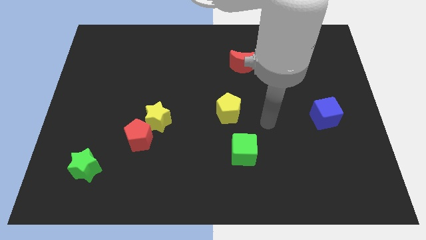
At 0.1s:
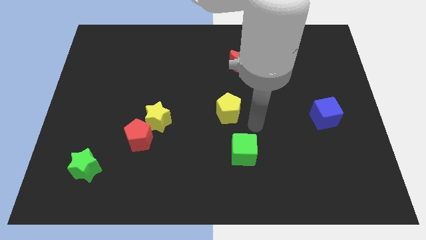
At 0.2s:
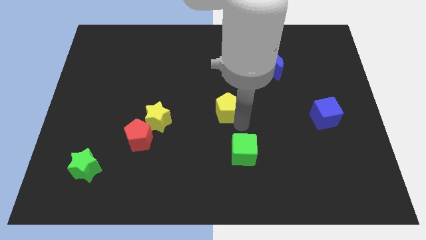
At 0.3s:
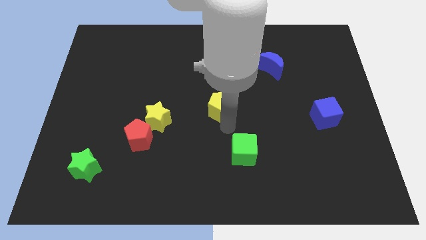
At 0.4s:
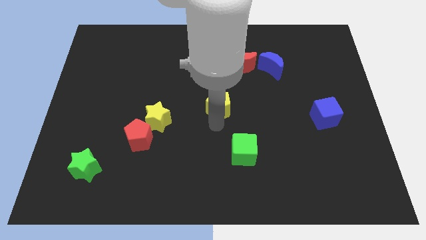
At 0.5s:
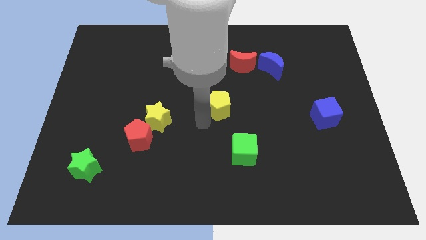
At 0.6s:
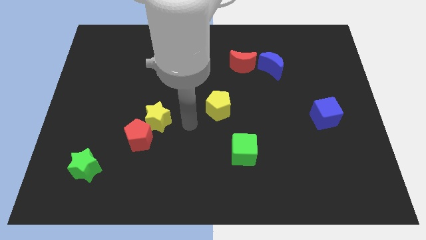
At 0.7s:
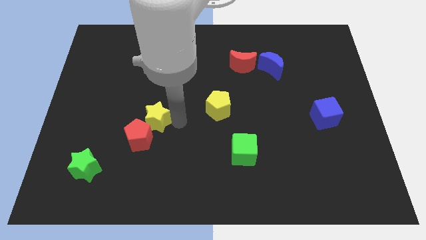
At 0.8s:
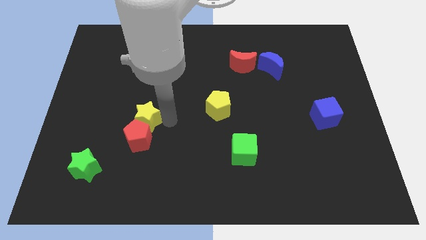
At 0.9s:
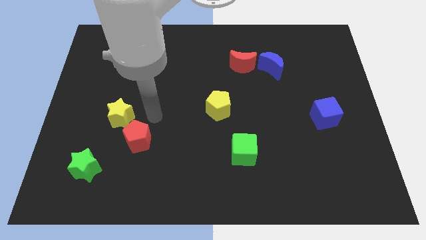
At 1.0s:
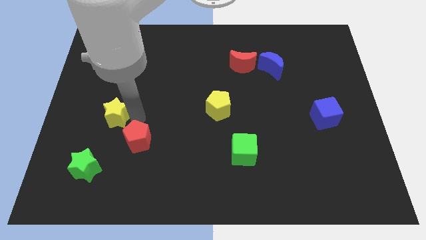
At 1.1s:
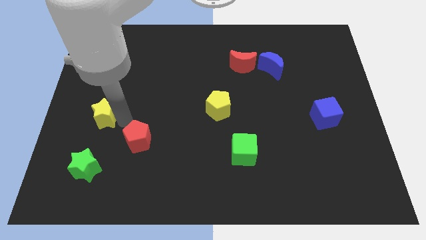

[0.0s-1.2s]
move the red pentagon away from the yellow star

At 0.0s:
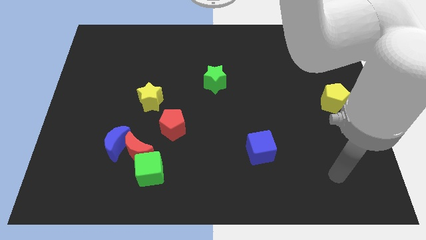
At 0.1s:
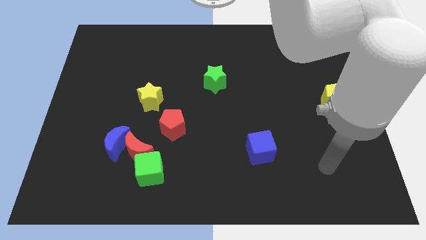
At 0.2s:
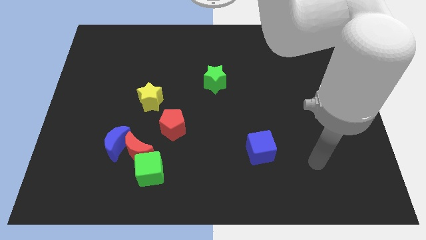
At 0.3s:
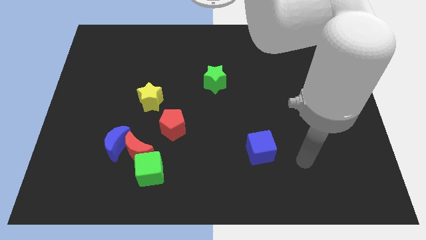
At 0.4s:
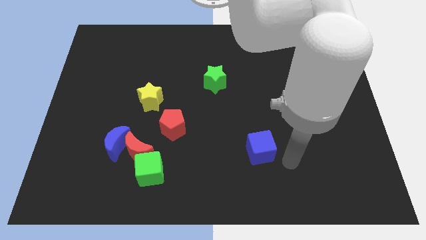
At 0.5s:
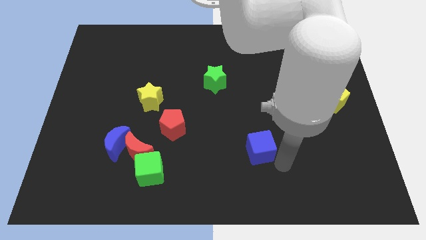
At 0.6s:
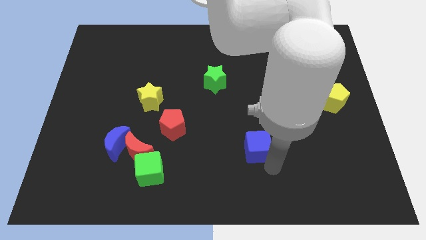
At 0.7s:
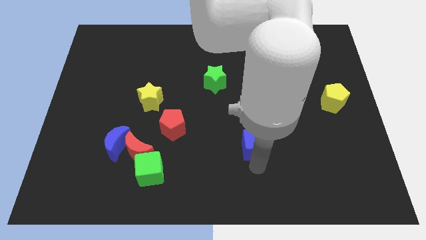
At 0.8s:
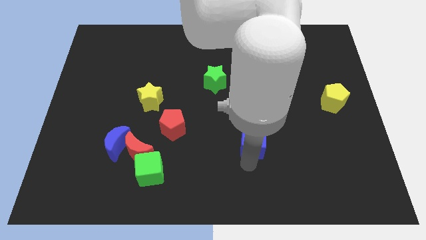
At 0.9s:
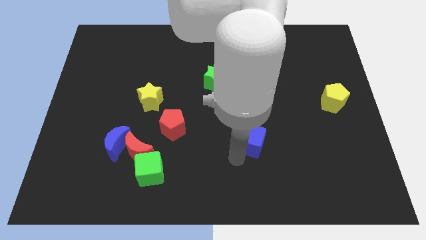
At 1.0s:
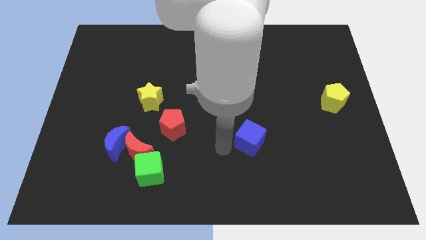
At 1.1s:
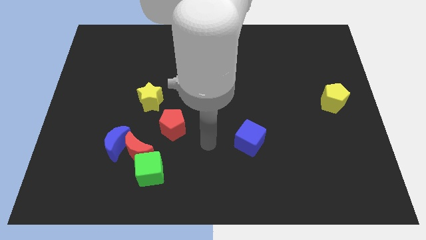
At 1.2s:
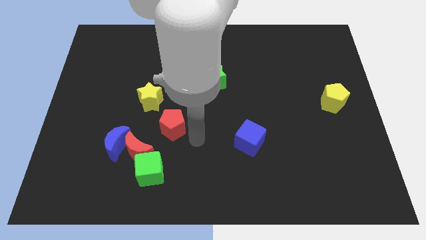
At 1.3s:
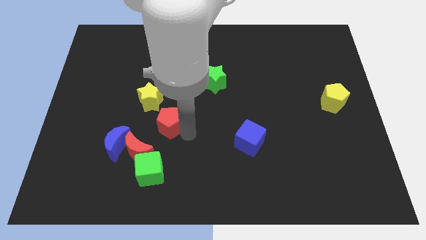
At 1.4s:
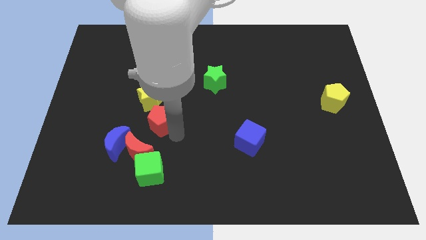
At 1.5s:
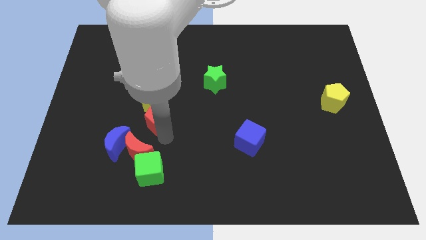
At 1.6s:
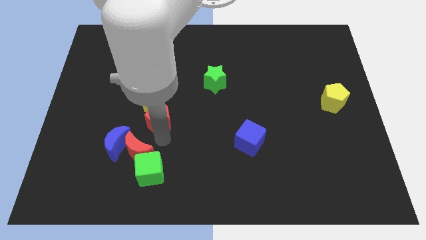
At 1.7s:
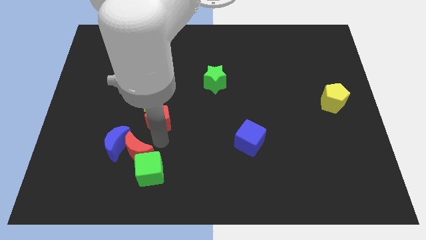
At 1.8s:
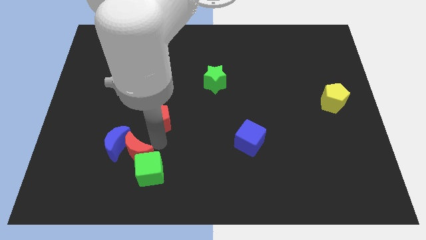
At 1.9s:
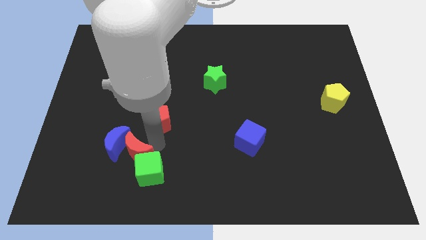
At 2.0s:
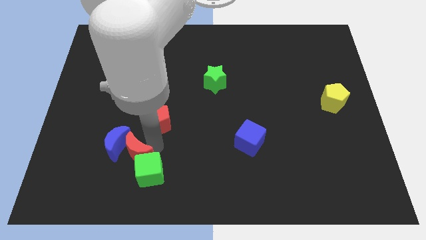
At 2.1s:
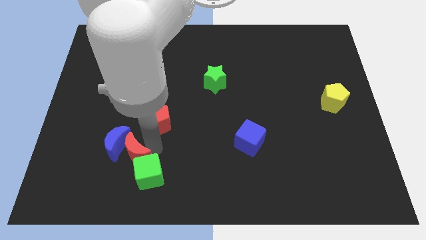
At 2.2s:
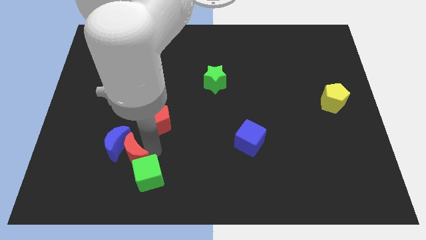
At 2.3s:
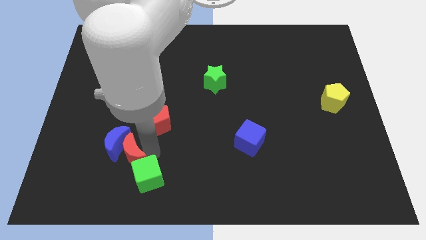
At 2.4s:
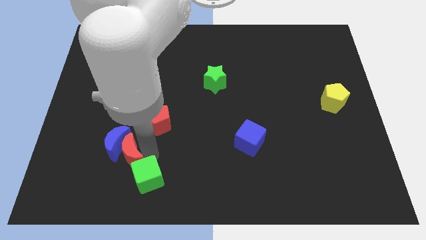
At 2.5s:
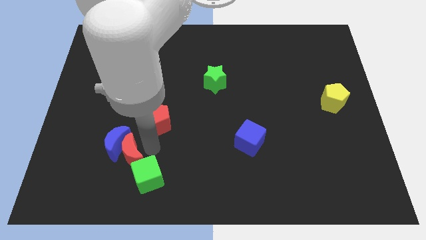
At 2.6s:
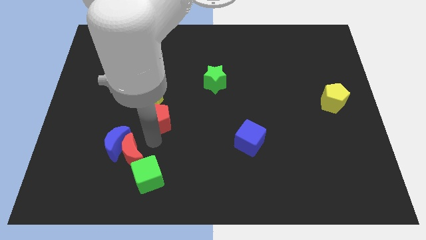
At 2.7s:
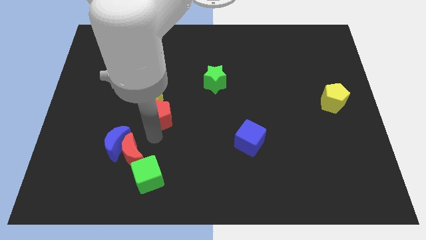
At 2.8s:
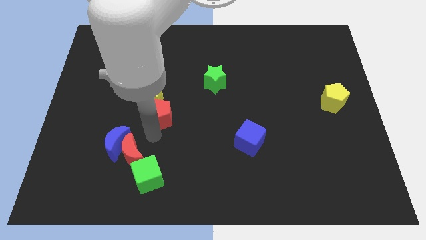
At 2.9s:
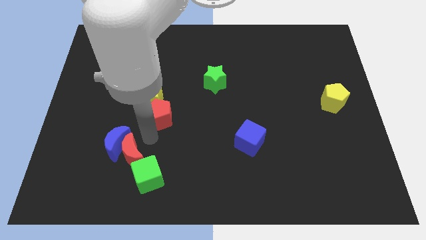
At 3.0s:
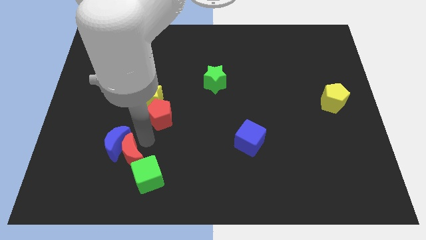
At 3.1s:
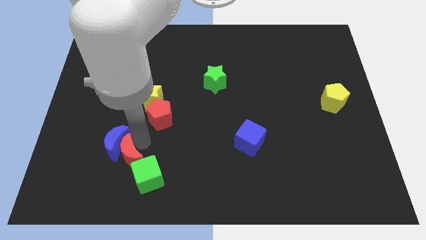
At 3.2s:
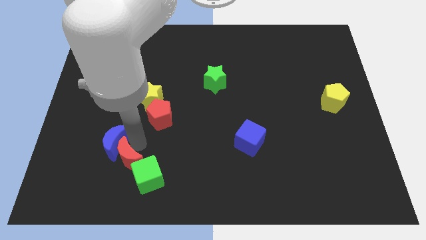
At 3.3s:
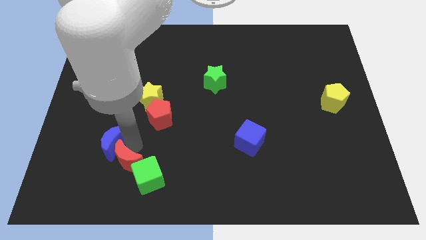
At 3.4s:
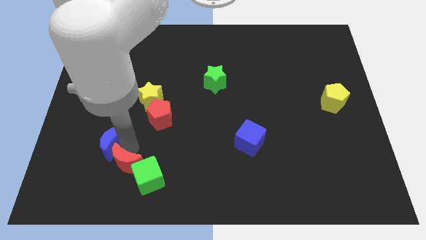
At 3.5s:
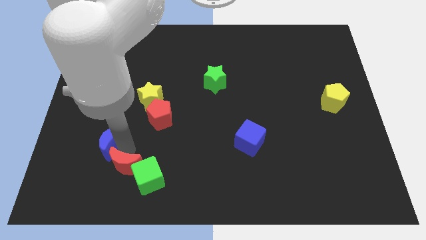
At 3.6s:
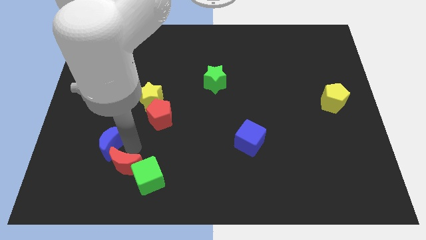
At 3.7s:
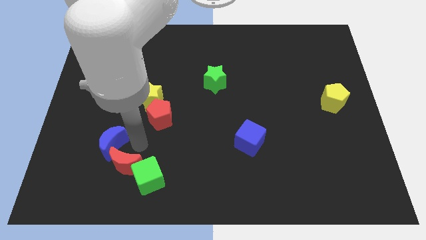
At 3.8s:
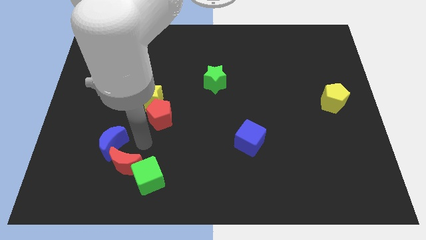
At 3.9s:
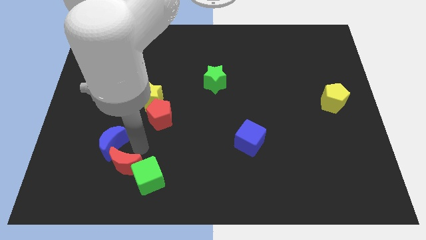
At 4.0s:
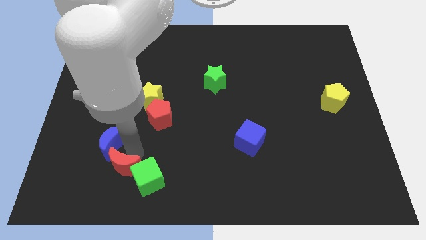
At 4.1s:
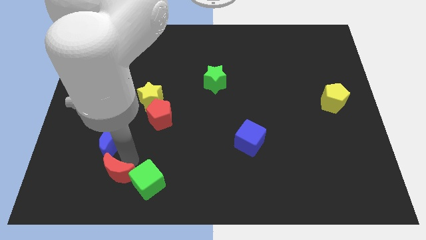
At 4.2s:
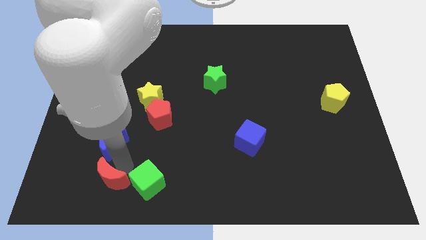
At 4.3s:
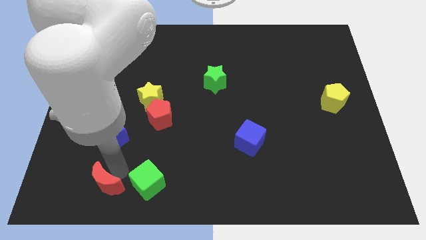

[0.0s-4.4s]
move the red moon away from the group

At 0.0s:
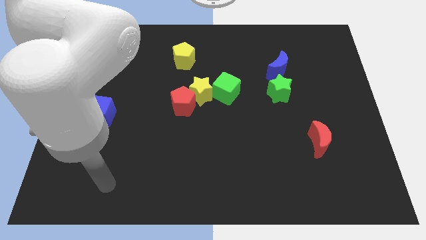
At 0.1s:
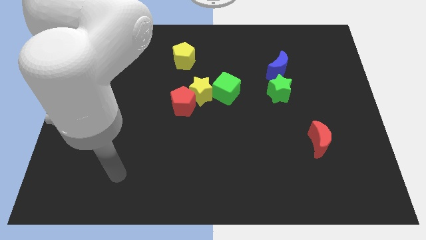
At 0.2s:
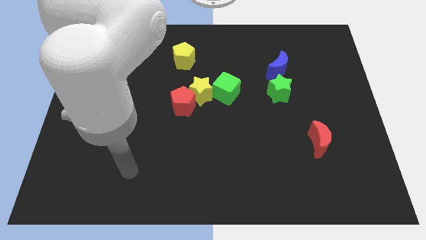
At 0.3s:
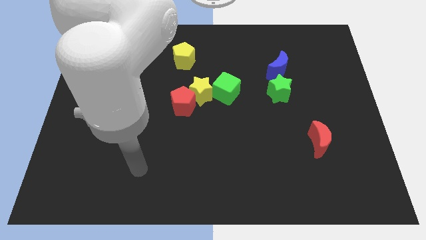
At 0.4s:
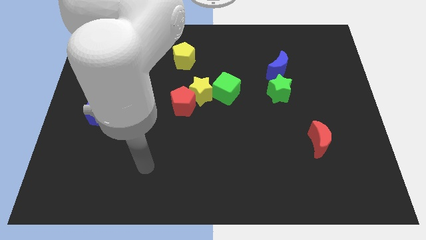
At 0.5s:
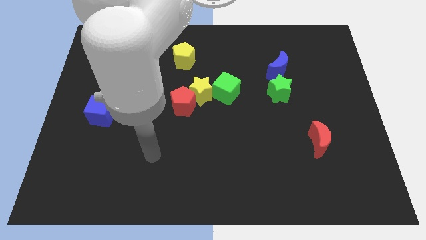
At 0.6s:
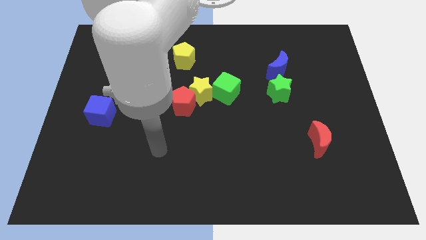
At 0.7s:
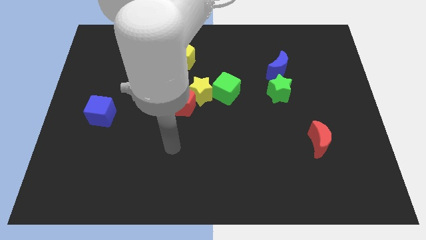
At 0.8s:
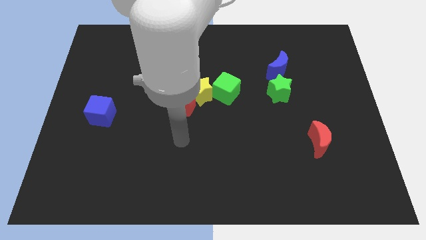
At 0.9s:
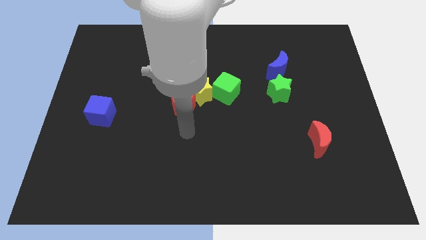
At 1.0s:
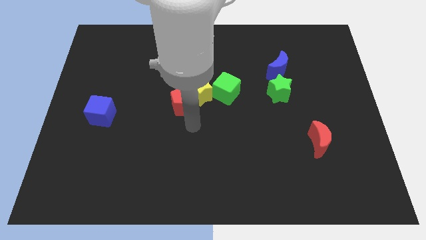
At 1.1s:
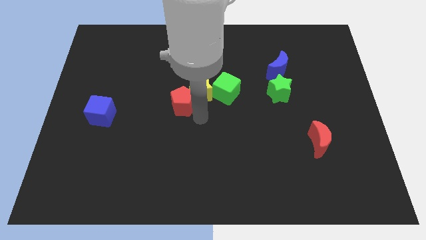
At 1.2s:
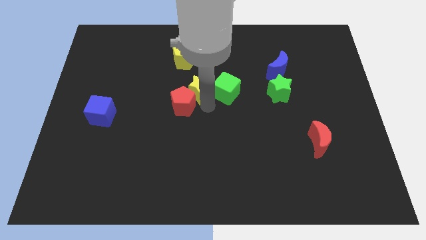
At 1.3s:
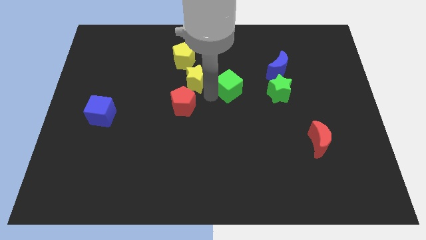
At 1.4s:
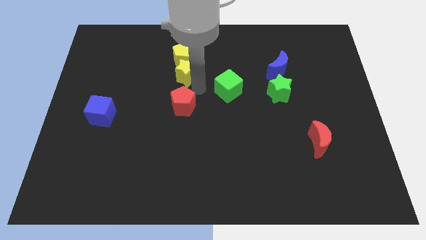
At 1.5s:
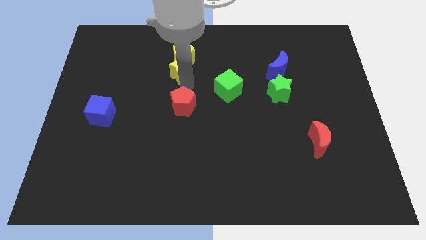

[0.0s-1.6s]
pull the red pentagon apart from the yellow star

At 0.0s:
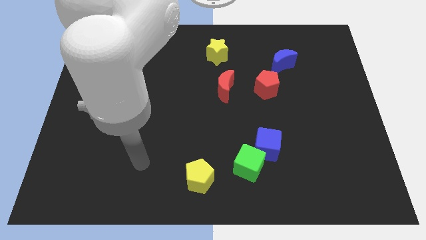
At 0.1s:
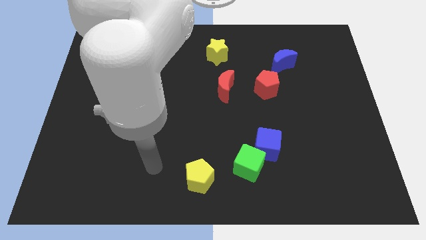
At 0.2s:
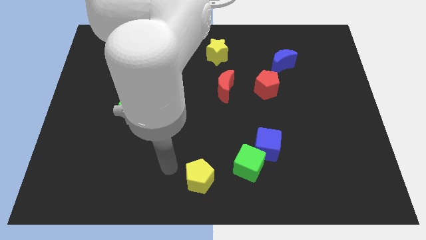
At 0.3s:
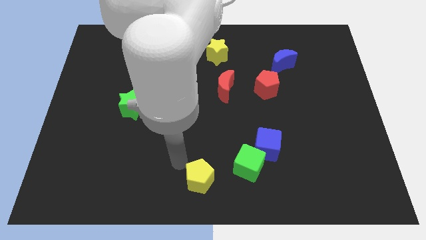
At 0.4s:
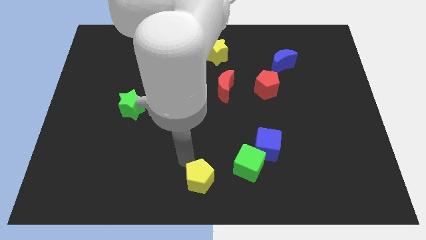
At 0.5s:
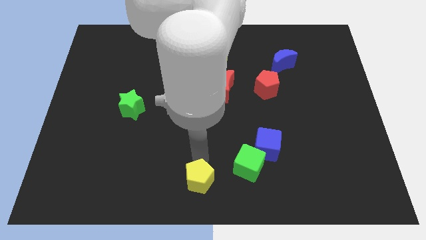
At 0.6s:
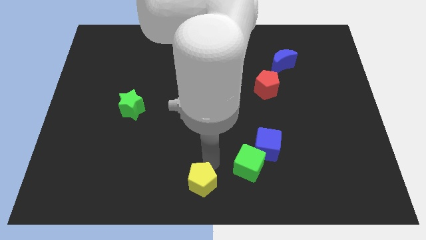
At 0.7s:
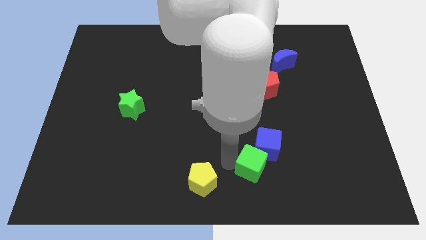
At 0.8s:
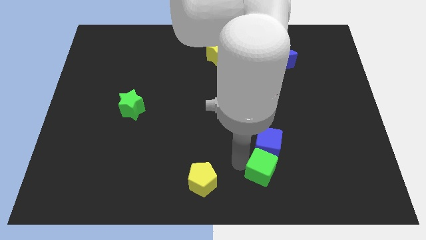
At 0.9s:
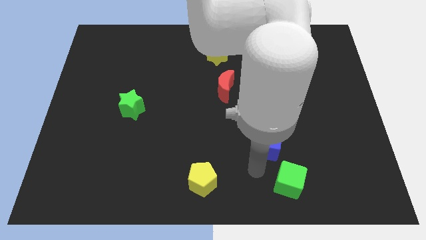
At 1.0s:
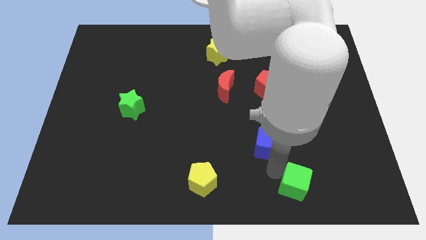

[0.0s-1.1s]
move the blue cube away from the green cube

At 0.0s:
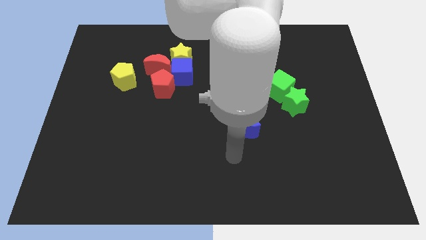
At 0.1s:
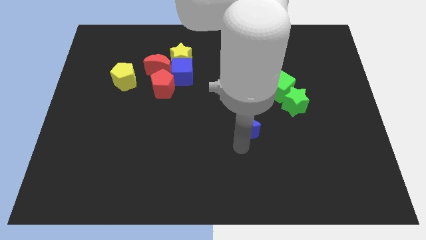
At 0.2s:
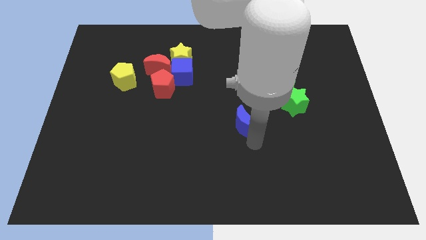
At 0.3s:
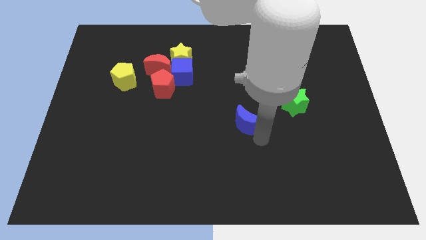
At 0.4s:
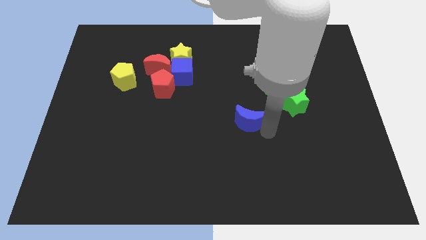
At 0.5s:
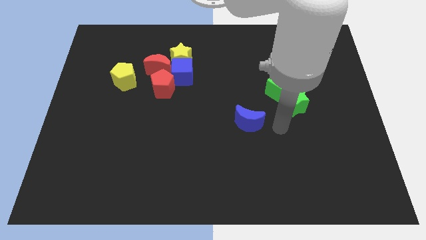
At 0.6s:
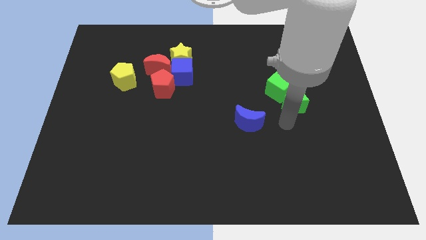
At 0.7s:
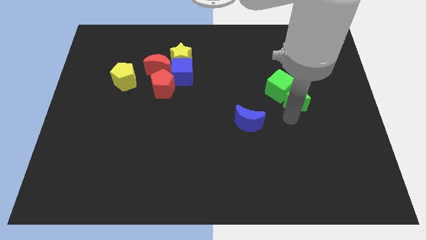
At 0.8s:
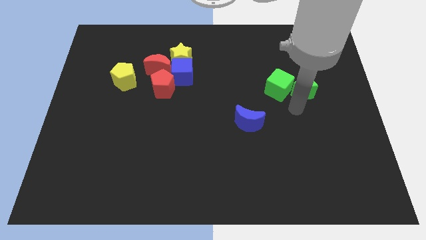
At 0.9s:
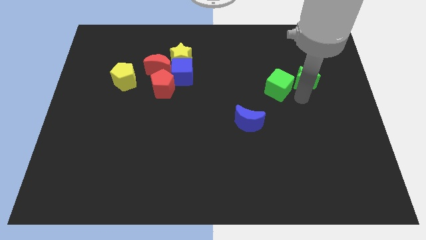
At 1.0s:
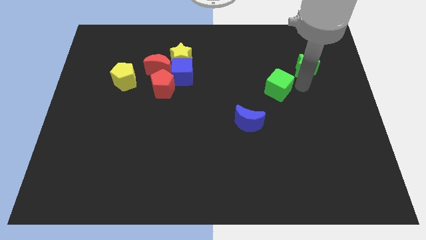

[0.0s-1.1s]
move the green cube away from the green star
